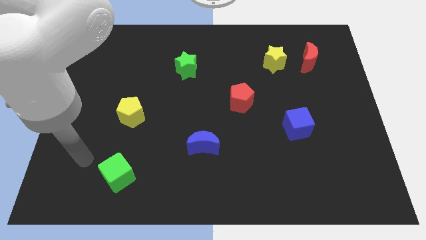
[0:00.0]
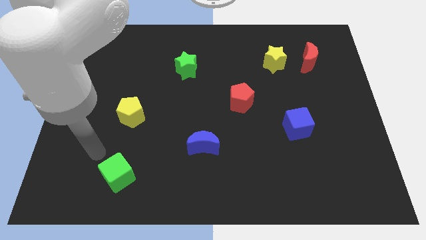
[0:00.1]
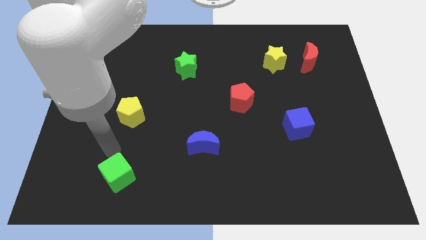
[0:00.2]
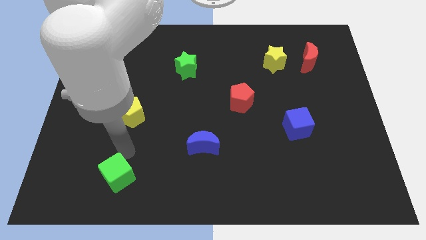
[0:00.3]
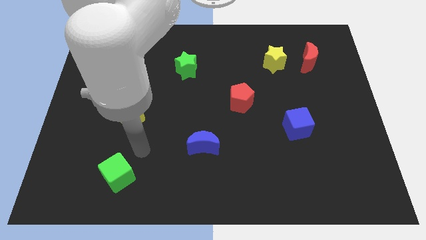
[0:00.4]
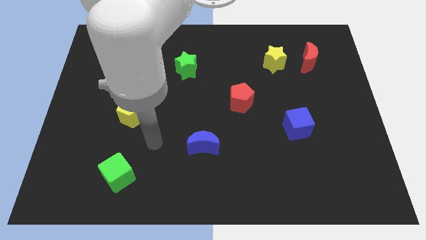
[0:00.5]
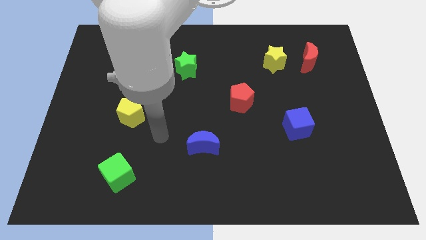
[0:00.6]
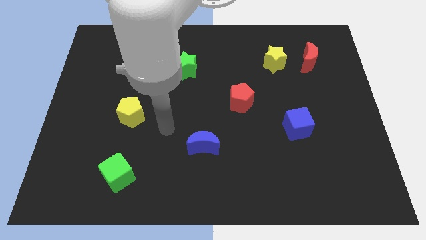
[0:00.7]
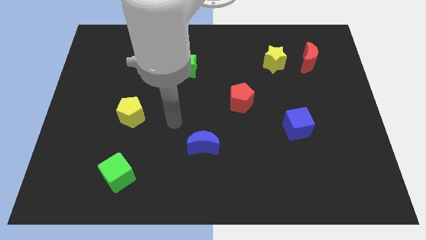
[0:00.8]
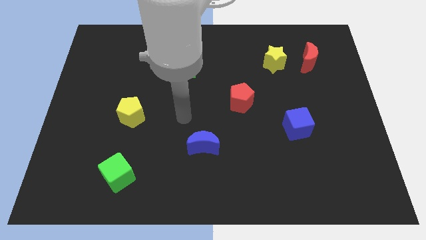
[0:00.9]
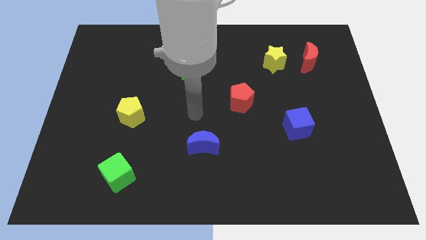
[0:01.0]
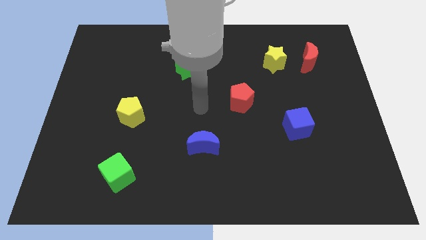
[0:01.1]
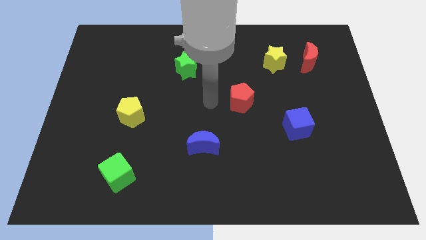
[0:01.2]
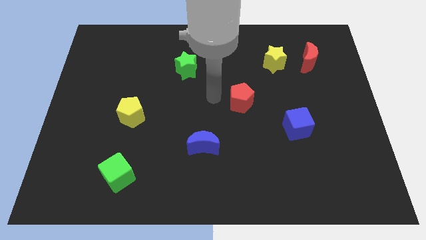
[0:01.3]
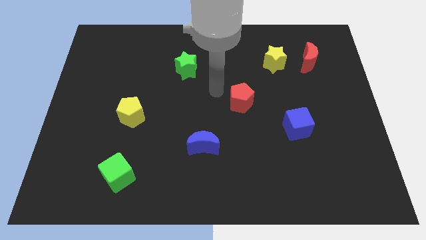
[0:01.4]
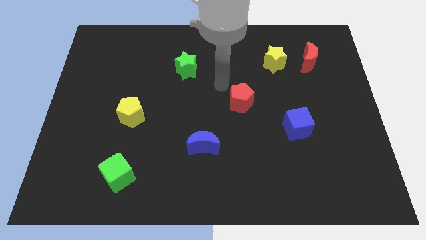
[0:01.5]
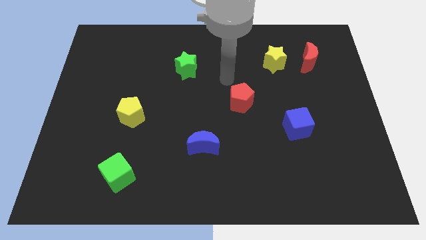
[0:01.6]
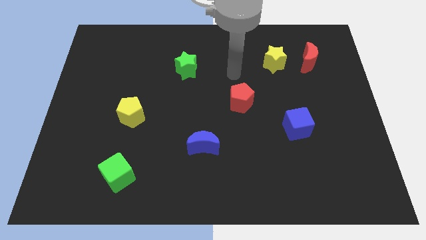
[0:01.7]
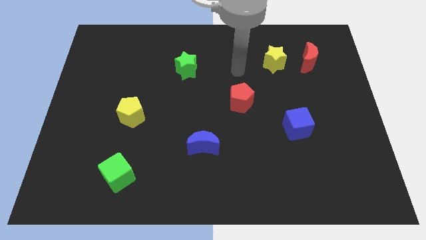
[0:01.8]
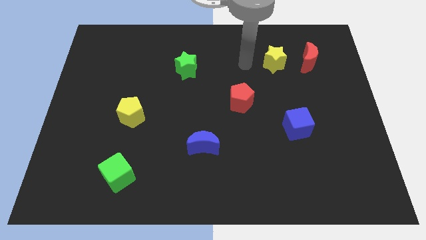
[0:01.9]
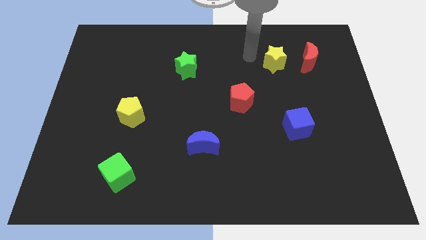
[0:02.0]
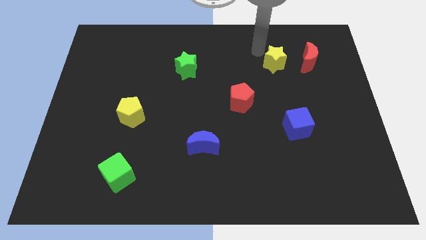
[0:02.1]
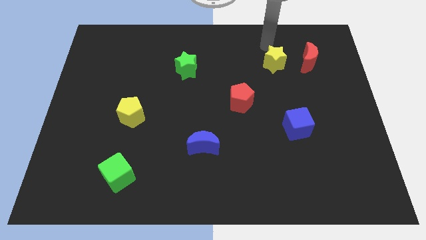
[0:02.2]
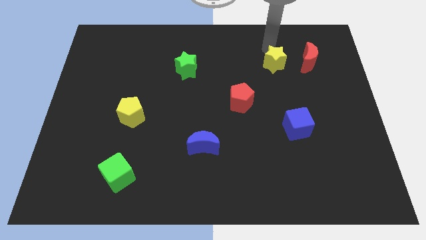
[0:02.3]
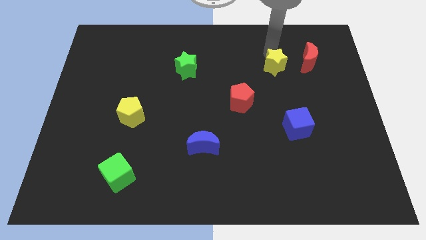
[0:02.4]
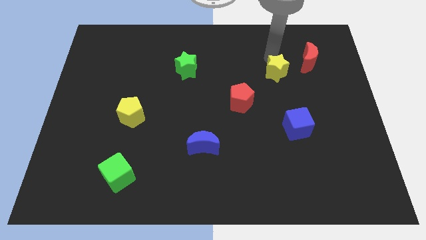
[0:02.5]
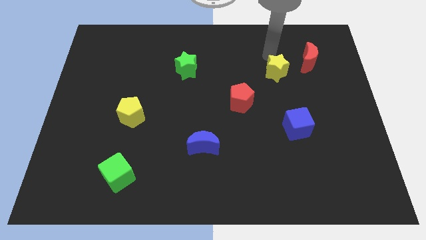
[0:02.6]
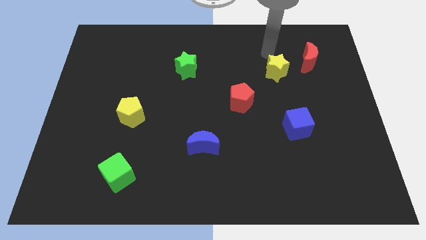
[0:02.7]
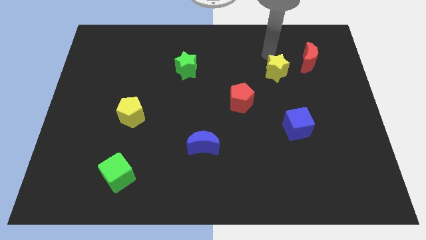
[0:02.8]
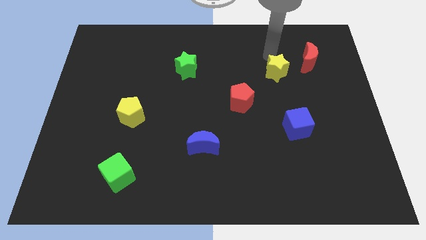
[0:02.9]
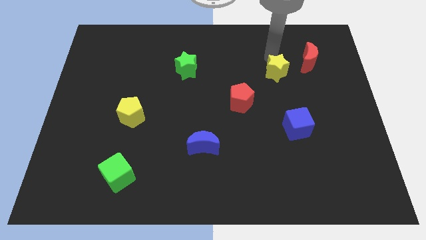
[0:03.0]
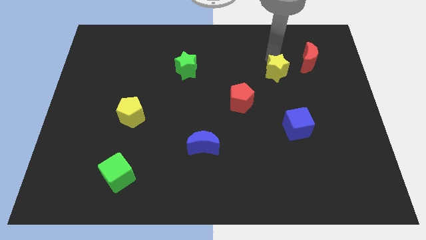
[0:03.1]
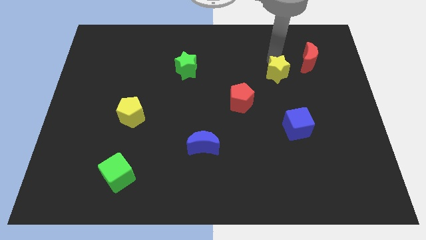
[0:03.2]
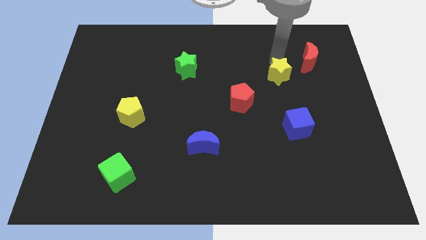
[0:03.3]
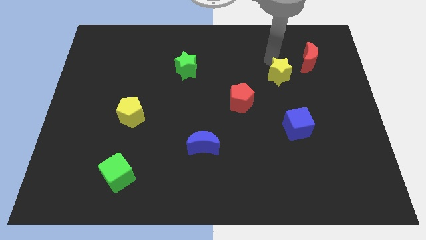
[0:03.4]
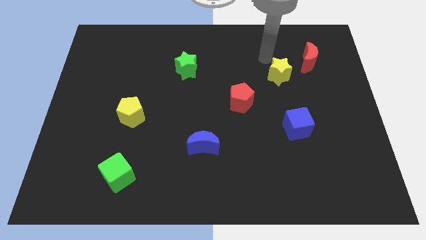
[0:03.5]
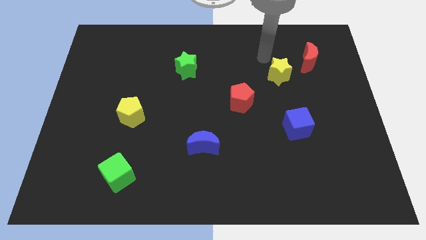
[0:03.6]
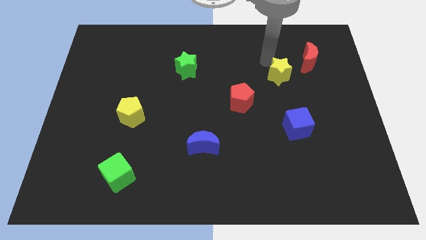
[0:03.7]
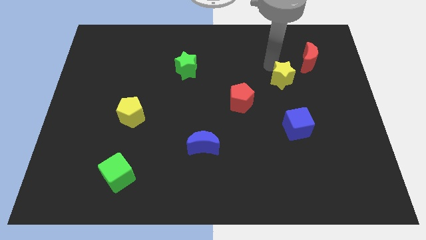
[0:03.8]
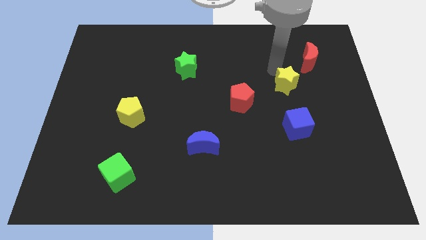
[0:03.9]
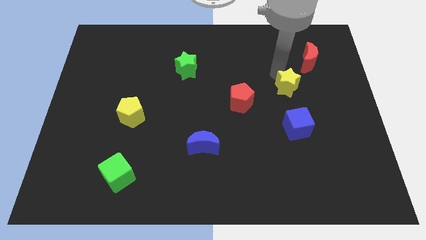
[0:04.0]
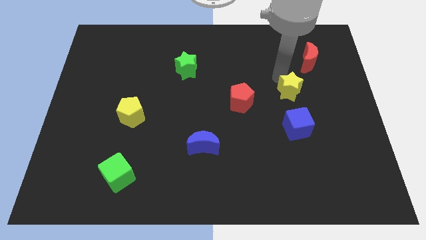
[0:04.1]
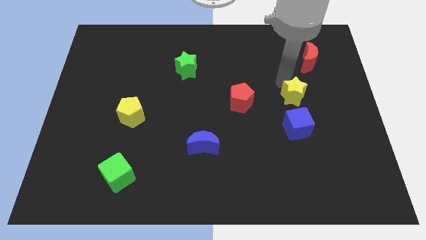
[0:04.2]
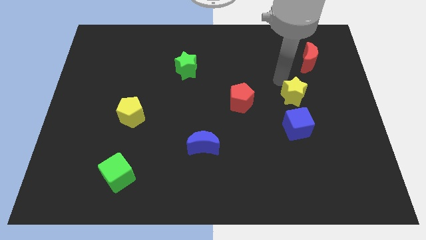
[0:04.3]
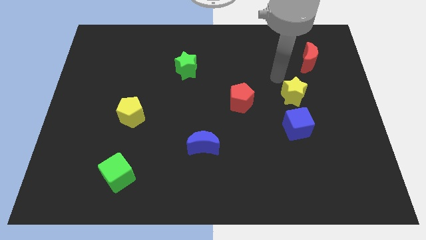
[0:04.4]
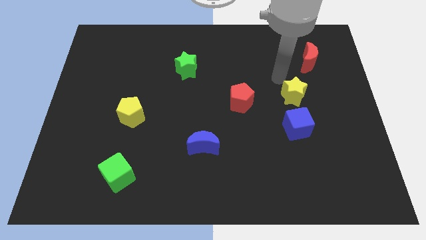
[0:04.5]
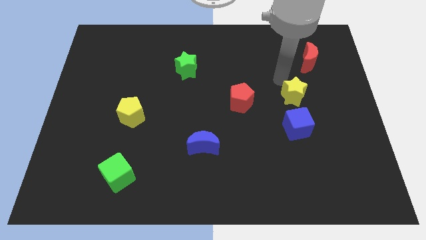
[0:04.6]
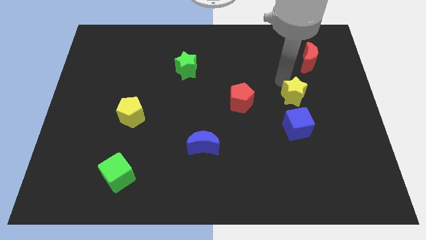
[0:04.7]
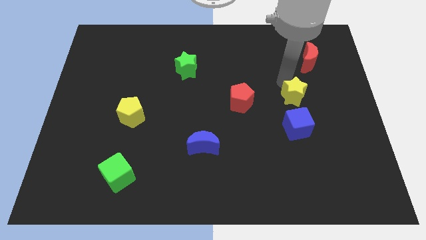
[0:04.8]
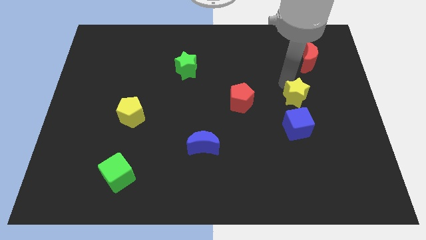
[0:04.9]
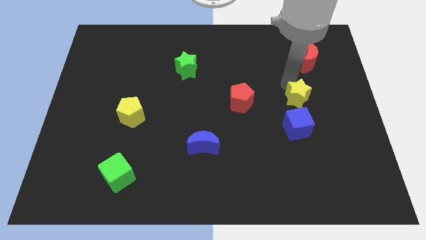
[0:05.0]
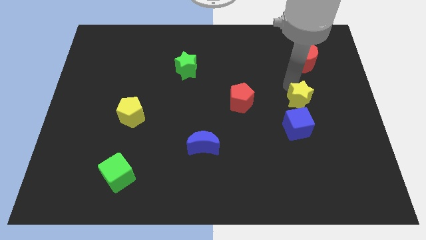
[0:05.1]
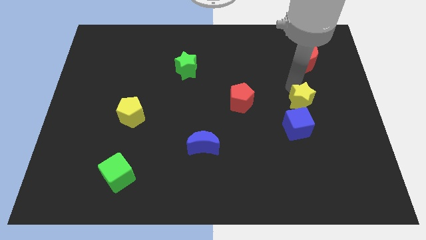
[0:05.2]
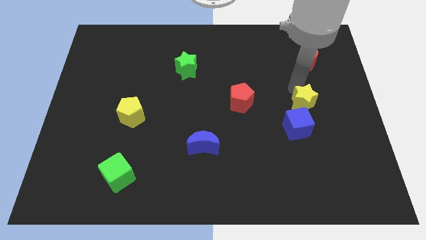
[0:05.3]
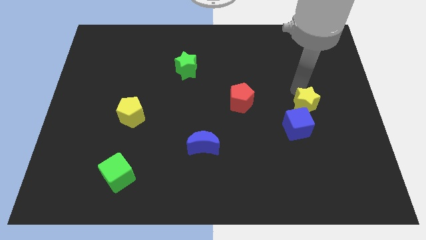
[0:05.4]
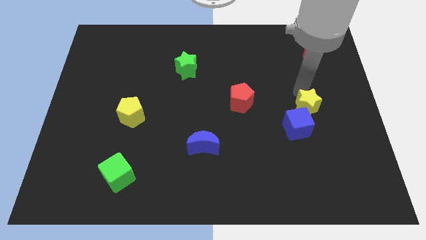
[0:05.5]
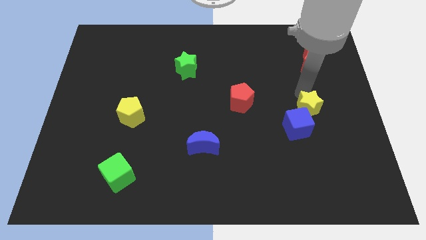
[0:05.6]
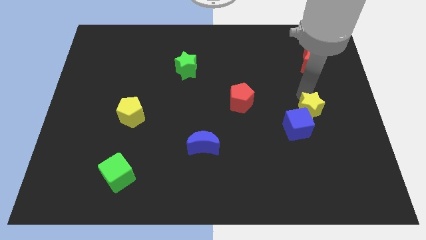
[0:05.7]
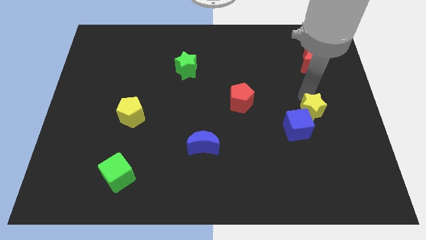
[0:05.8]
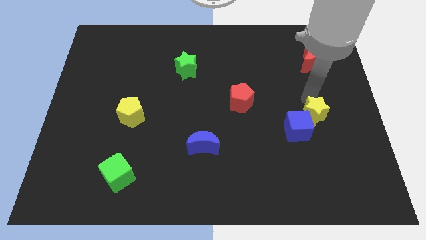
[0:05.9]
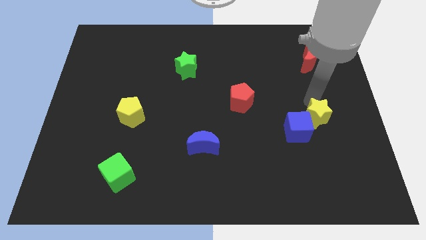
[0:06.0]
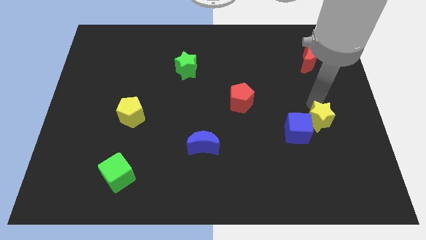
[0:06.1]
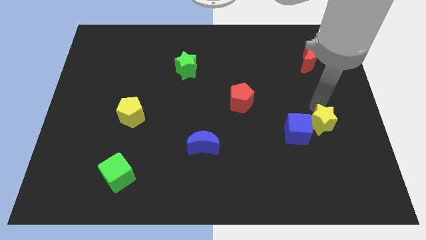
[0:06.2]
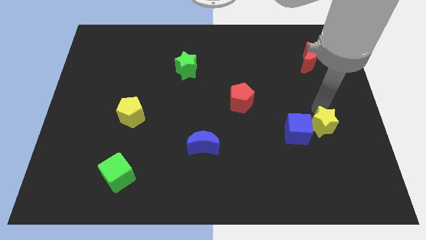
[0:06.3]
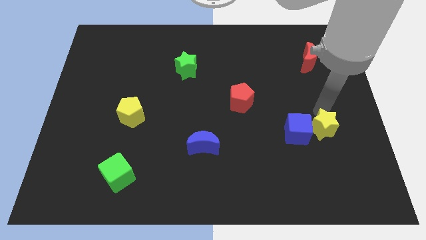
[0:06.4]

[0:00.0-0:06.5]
put the yellow star to the bottom right of the blue cube

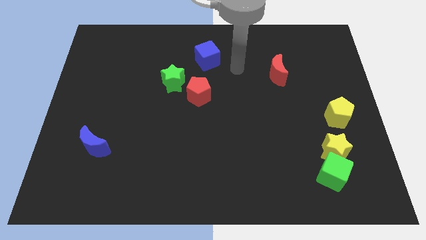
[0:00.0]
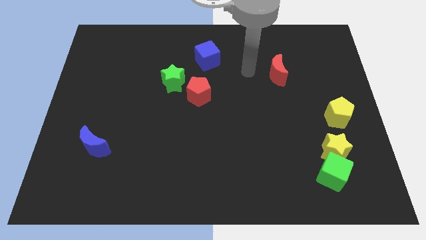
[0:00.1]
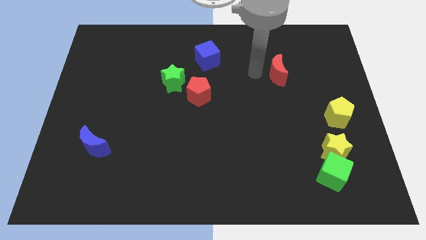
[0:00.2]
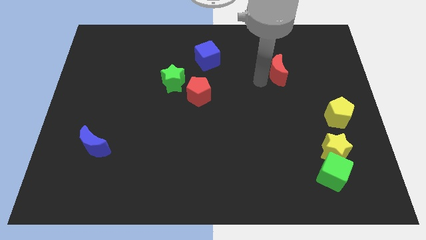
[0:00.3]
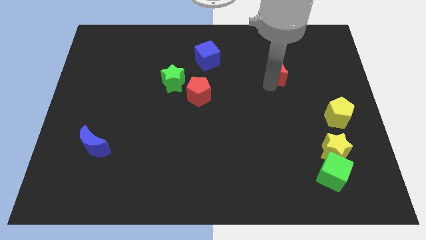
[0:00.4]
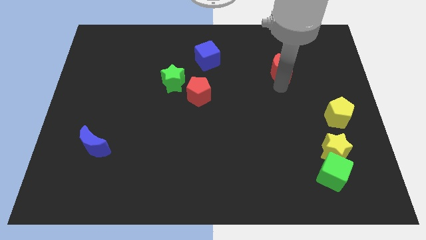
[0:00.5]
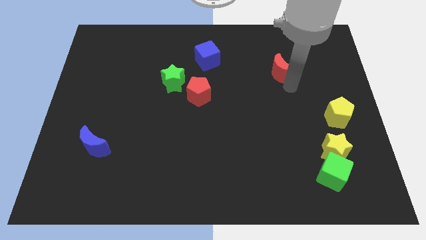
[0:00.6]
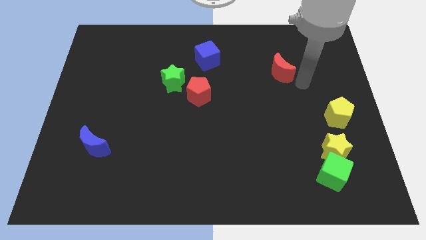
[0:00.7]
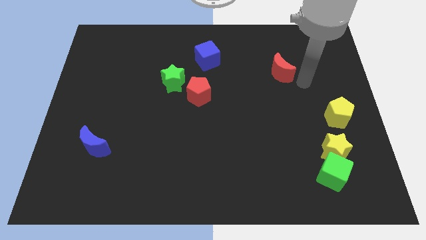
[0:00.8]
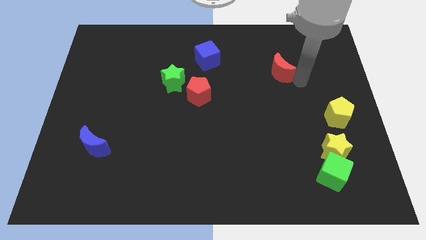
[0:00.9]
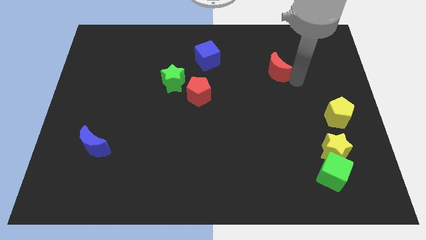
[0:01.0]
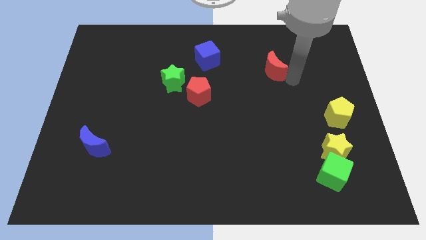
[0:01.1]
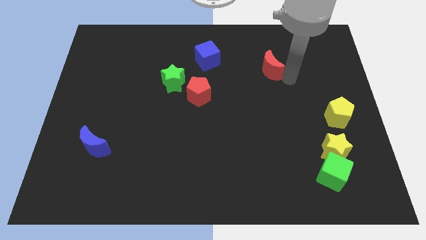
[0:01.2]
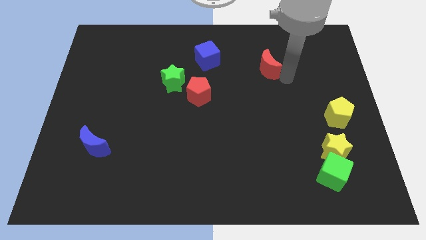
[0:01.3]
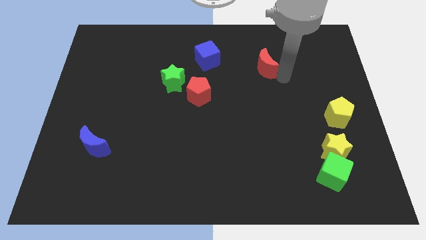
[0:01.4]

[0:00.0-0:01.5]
move the red moon just right of the blue cube
